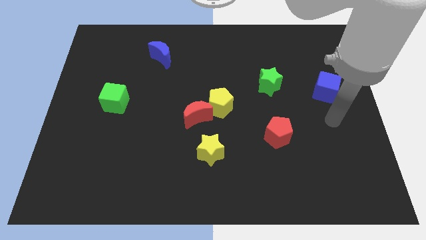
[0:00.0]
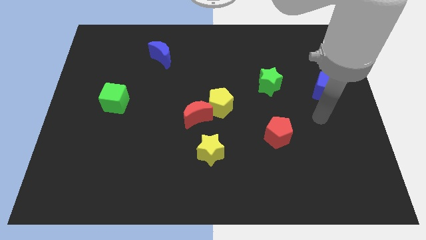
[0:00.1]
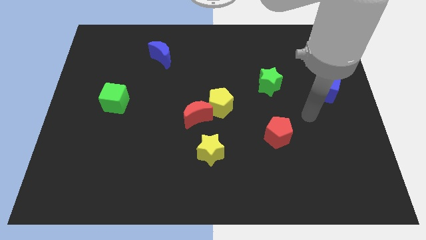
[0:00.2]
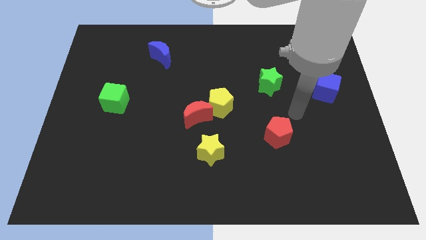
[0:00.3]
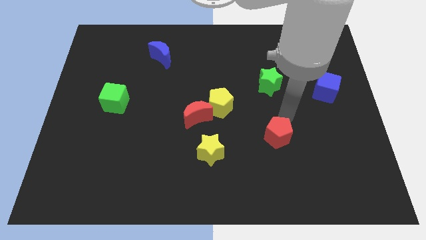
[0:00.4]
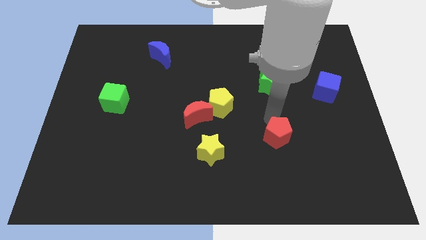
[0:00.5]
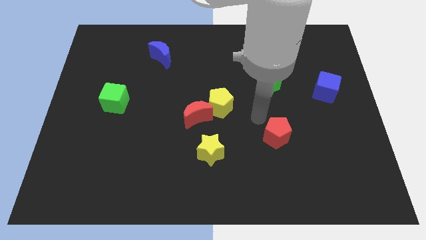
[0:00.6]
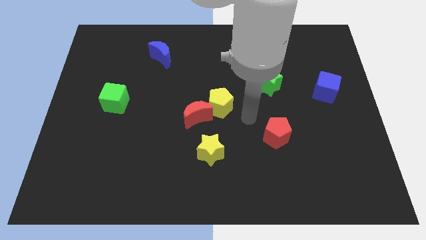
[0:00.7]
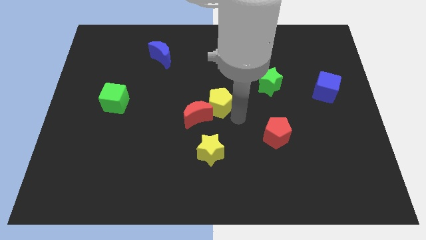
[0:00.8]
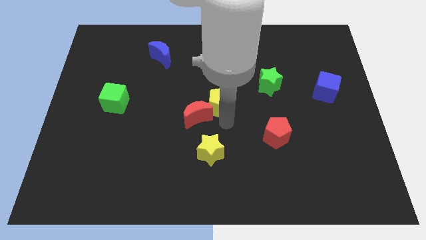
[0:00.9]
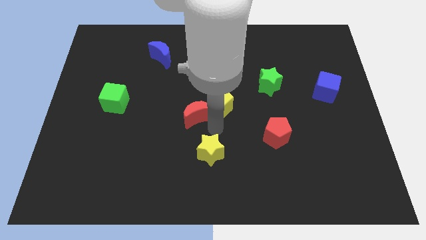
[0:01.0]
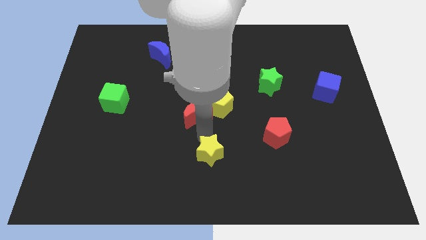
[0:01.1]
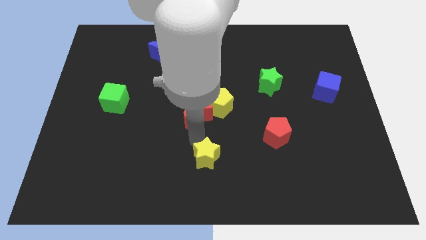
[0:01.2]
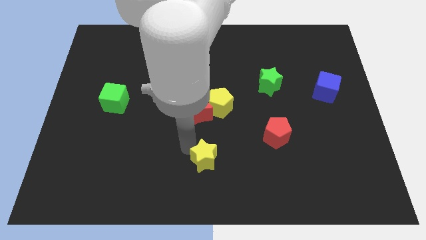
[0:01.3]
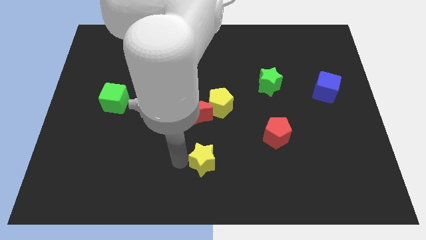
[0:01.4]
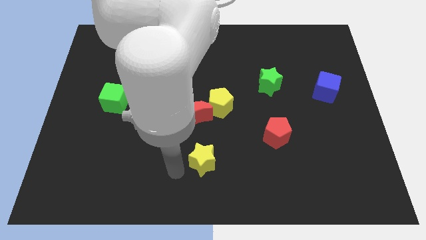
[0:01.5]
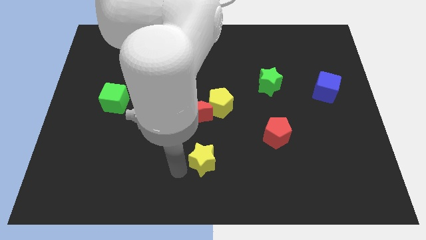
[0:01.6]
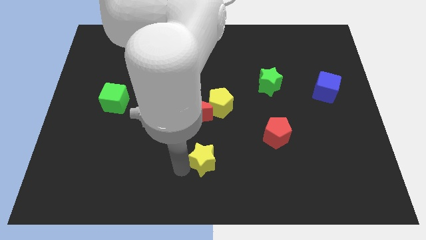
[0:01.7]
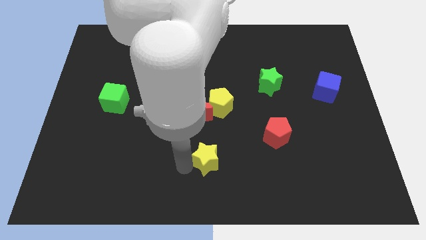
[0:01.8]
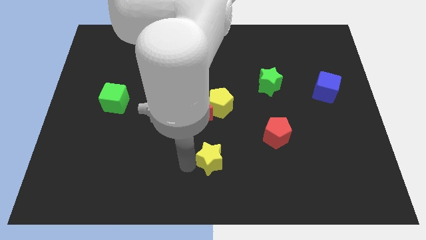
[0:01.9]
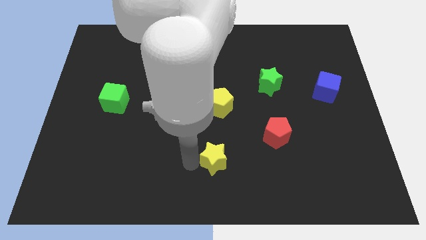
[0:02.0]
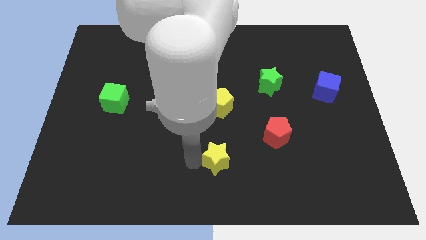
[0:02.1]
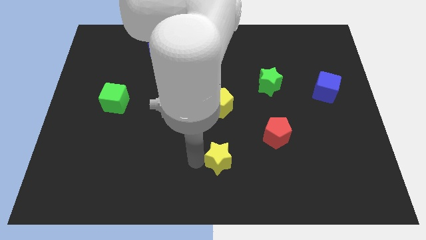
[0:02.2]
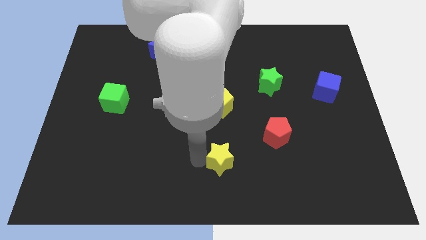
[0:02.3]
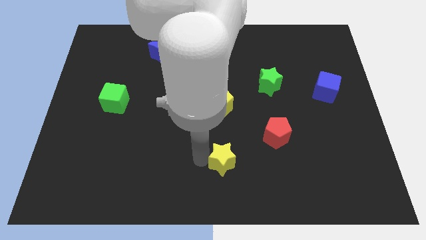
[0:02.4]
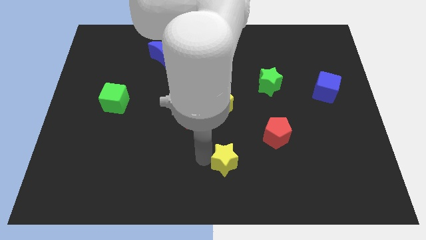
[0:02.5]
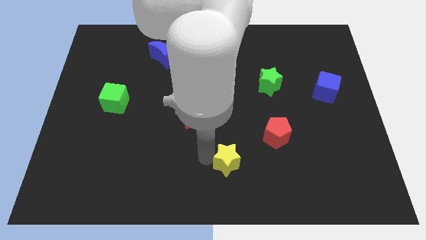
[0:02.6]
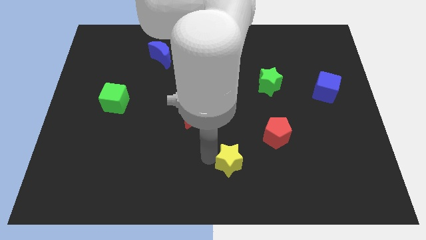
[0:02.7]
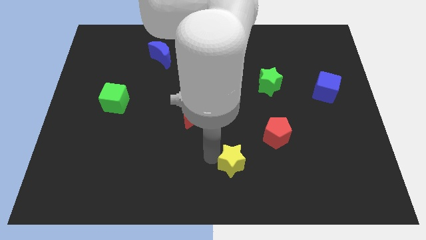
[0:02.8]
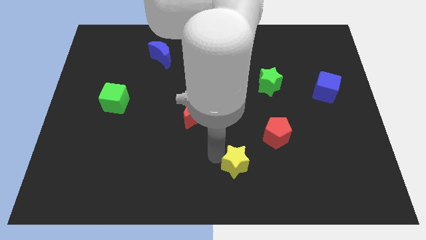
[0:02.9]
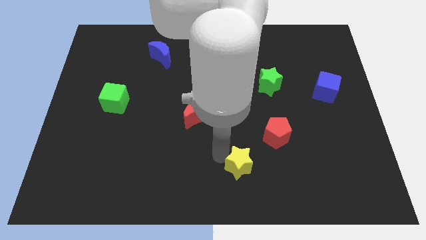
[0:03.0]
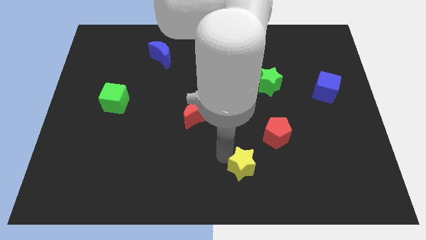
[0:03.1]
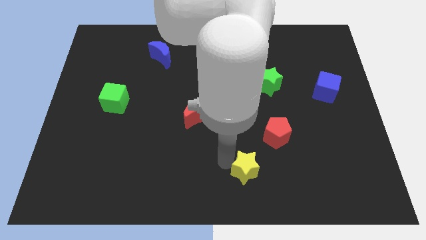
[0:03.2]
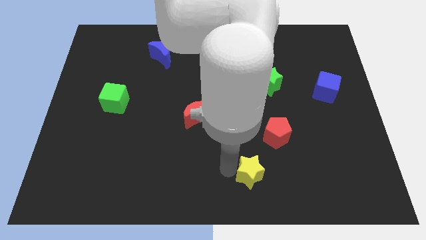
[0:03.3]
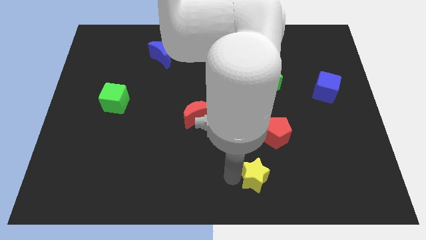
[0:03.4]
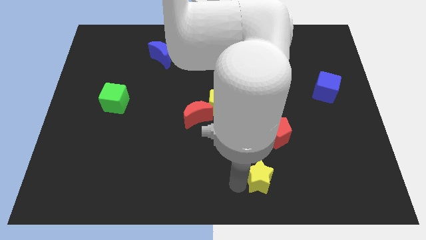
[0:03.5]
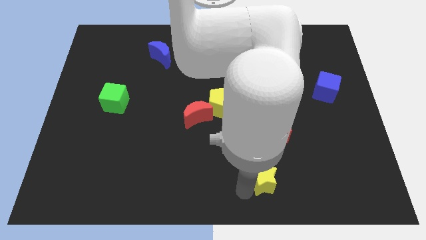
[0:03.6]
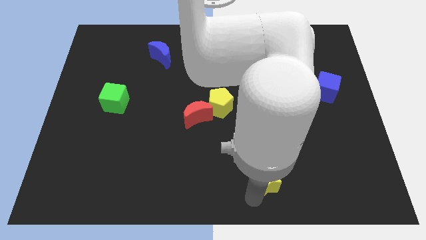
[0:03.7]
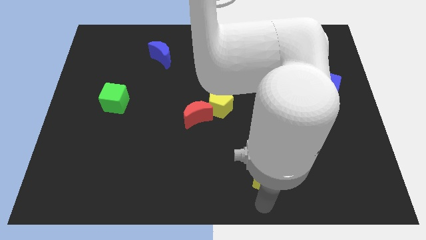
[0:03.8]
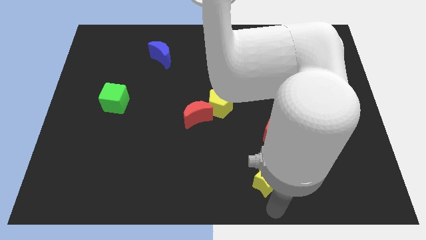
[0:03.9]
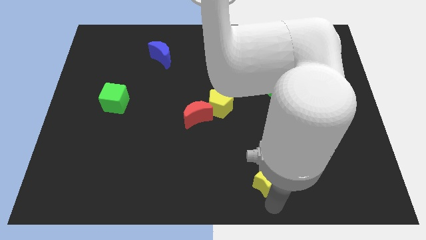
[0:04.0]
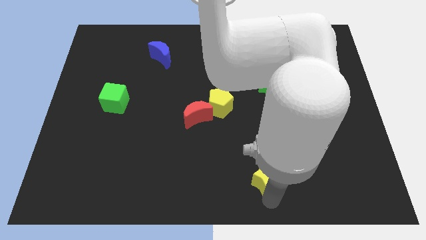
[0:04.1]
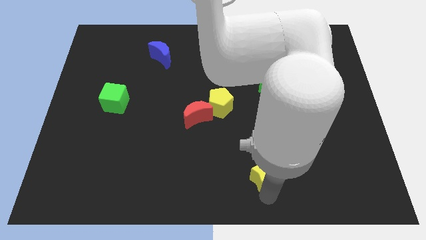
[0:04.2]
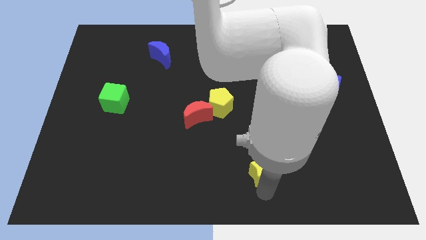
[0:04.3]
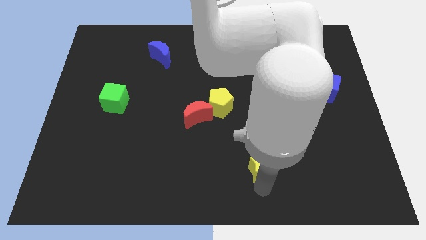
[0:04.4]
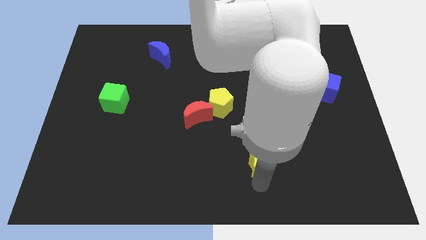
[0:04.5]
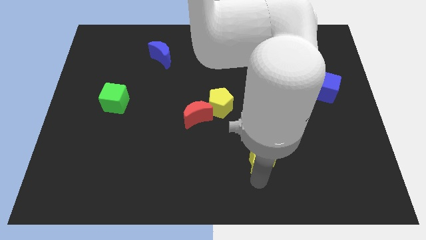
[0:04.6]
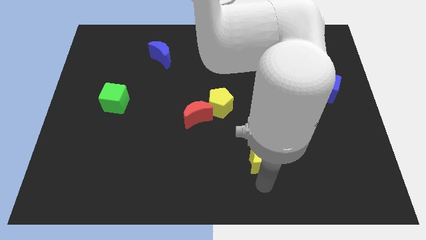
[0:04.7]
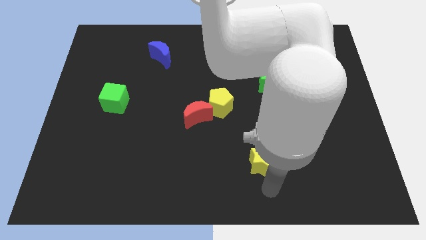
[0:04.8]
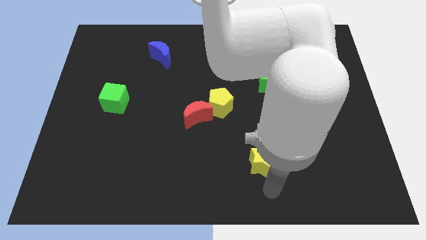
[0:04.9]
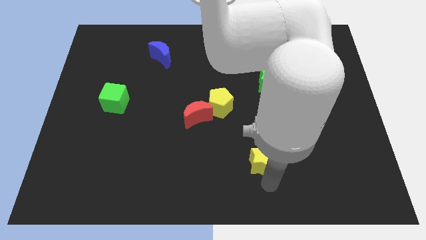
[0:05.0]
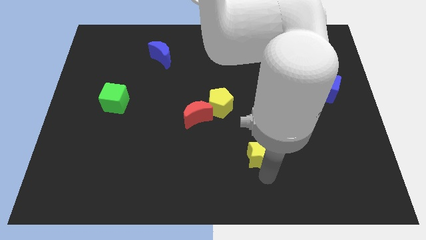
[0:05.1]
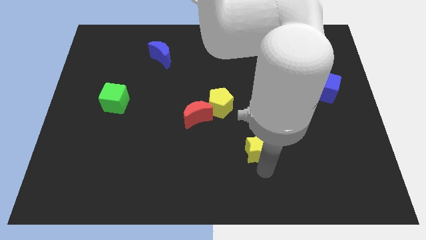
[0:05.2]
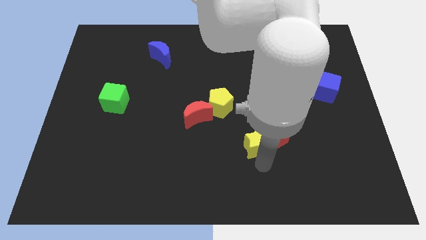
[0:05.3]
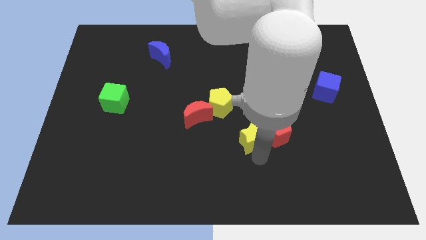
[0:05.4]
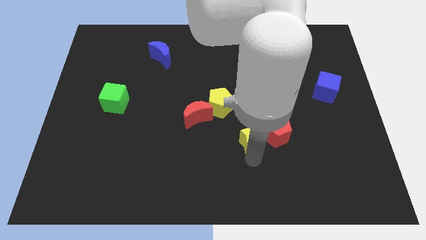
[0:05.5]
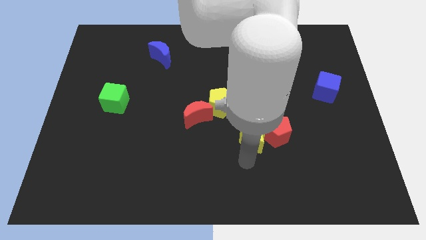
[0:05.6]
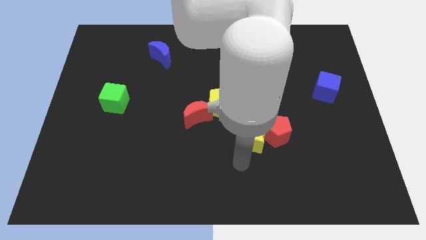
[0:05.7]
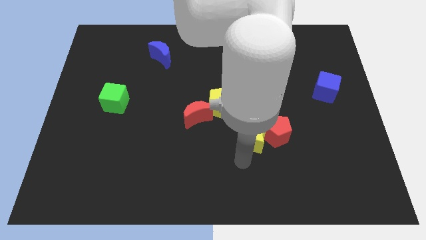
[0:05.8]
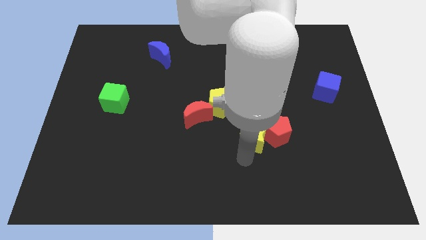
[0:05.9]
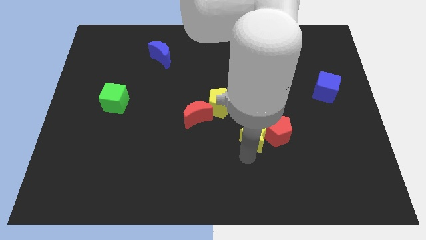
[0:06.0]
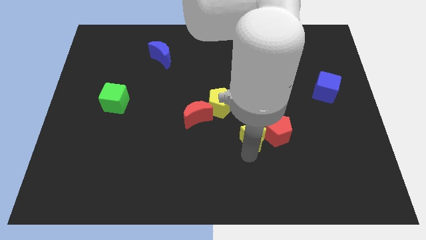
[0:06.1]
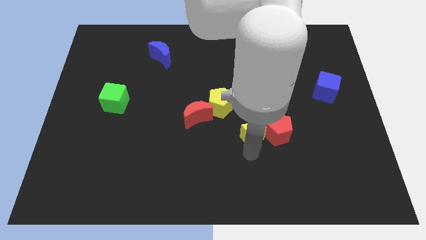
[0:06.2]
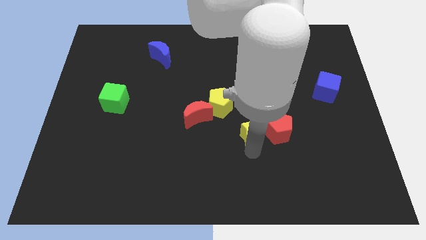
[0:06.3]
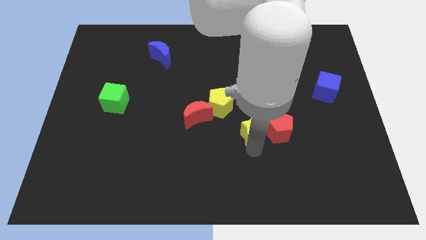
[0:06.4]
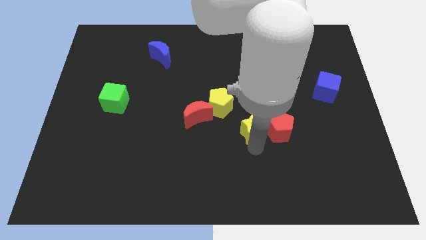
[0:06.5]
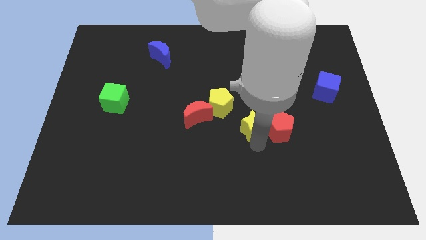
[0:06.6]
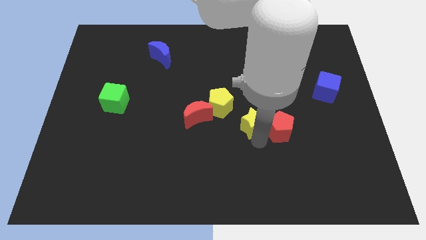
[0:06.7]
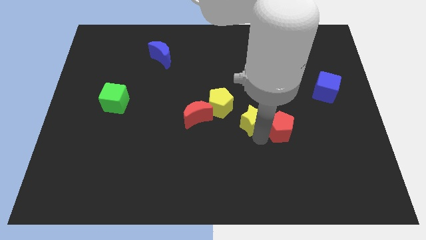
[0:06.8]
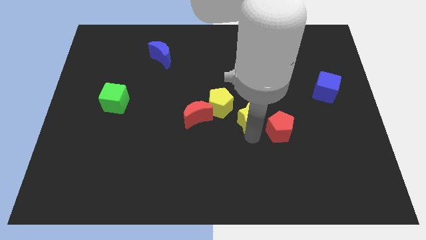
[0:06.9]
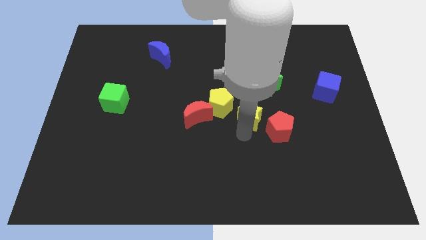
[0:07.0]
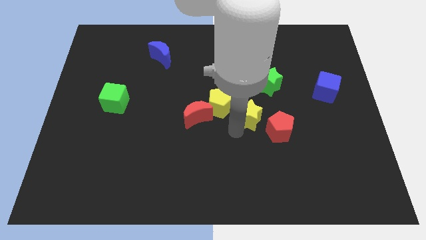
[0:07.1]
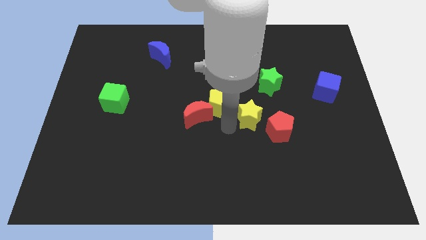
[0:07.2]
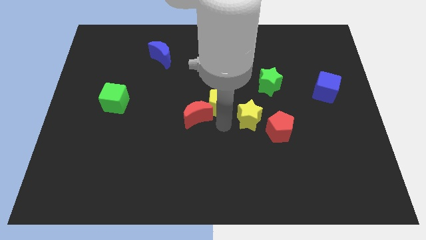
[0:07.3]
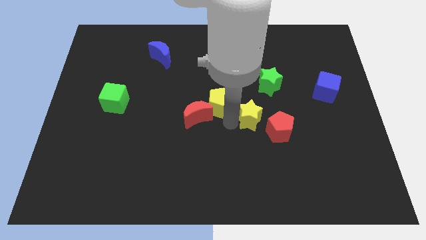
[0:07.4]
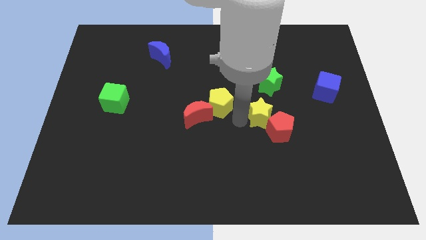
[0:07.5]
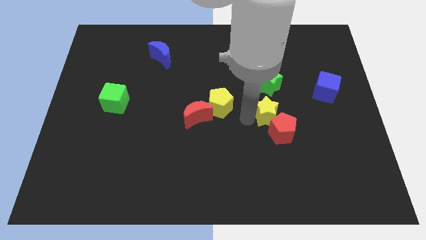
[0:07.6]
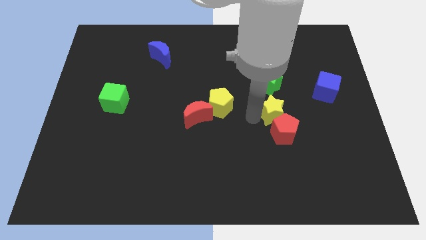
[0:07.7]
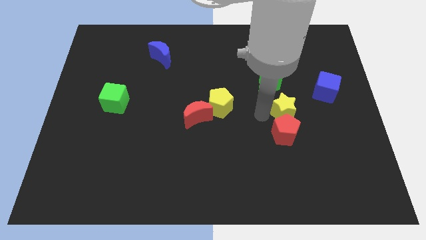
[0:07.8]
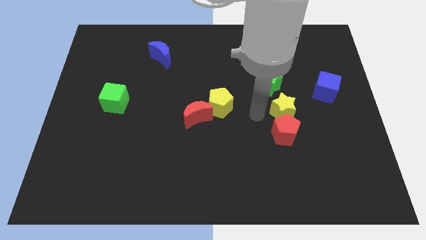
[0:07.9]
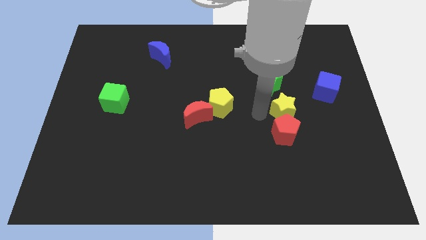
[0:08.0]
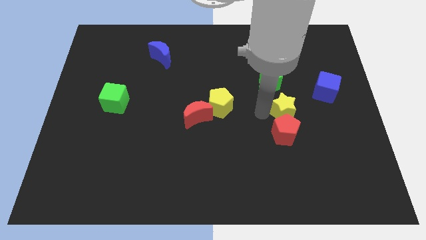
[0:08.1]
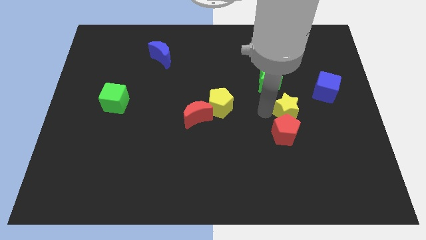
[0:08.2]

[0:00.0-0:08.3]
move the yellow star to the bottom left of the blue cube
